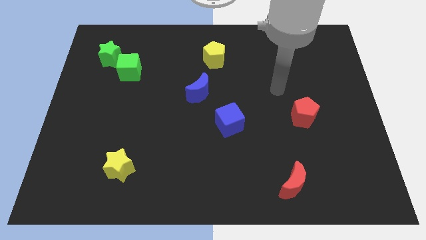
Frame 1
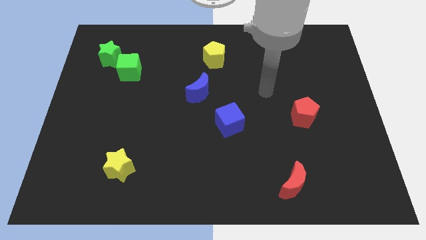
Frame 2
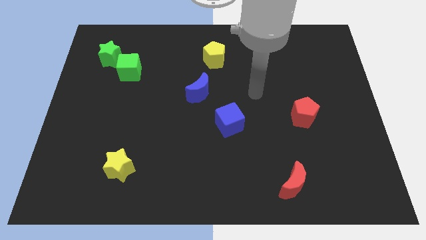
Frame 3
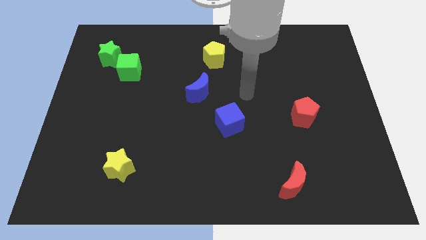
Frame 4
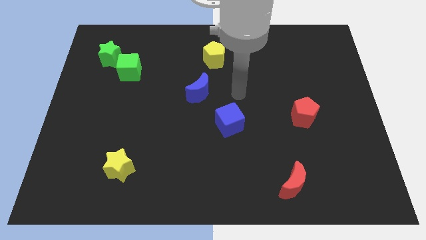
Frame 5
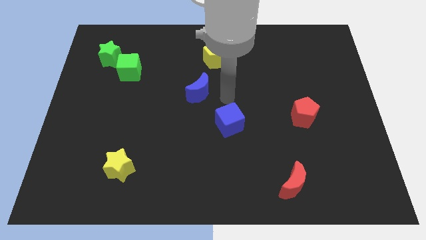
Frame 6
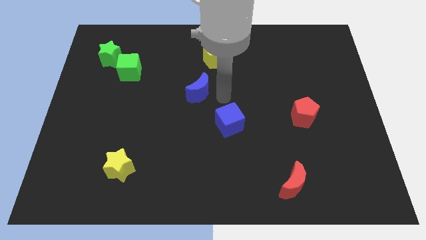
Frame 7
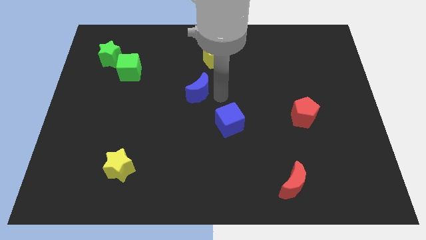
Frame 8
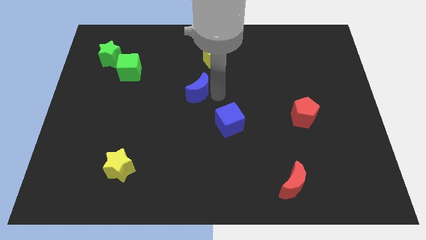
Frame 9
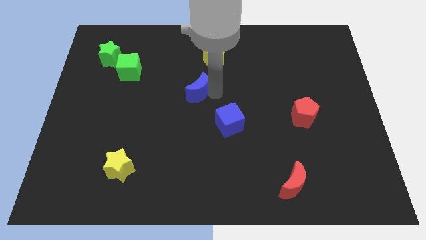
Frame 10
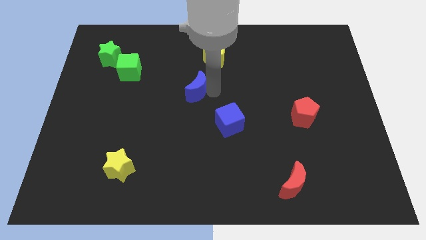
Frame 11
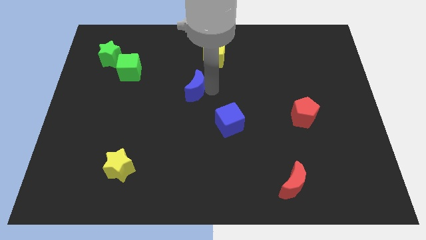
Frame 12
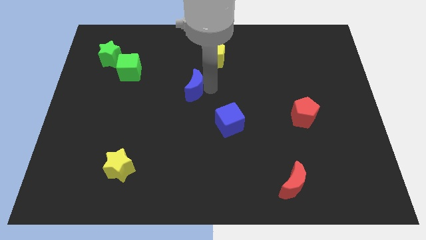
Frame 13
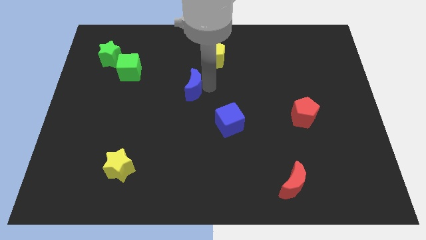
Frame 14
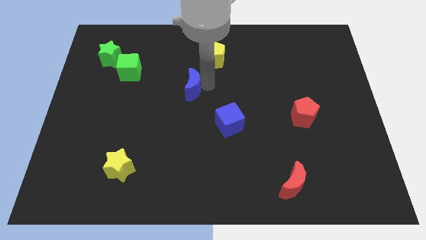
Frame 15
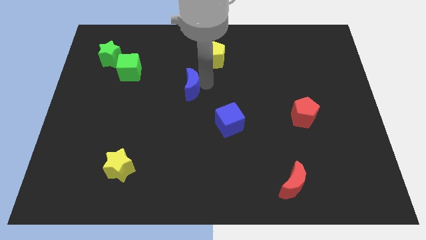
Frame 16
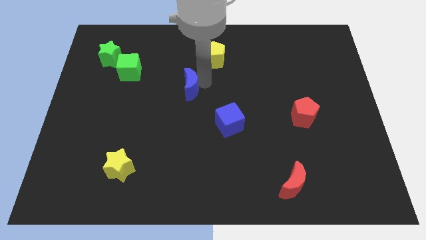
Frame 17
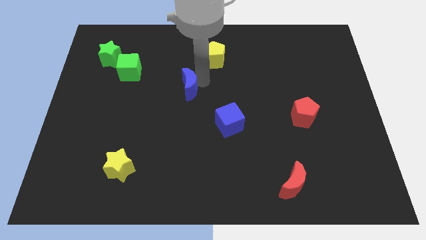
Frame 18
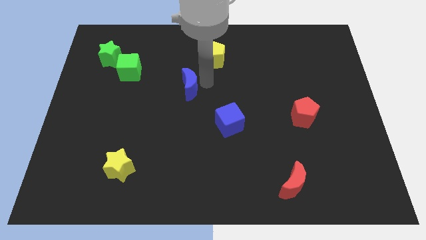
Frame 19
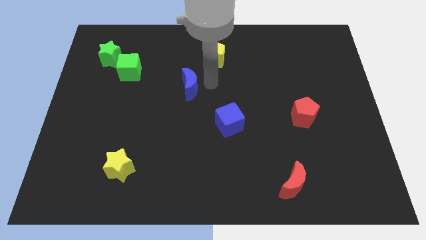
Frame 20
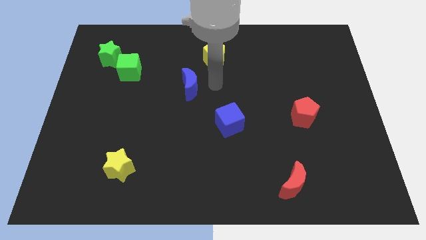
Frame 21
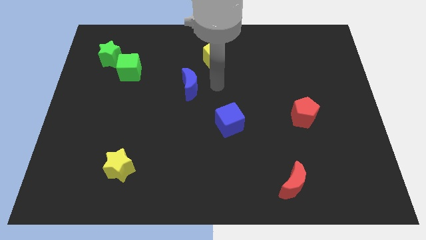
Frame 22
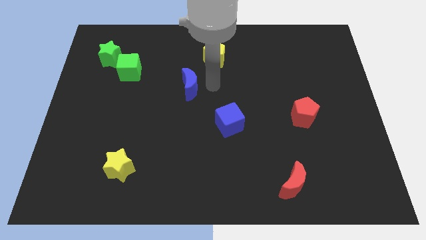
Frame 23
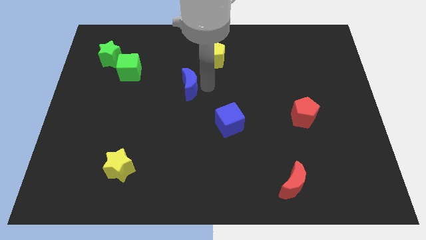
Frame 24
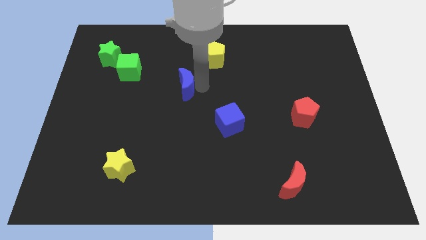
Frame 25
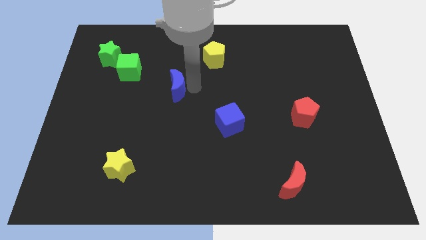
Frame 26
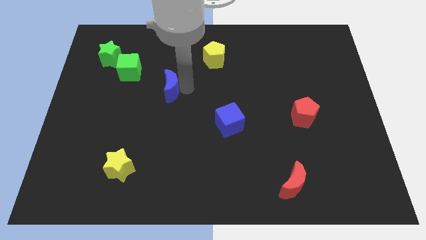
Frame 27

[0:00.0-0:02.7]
push the blue moon a little to the left

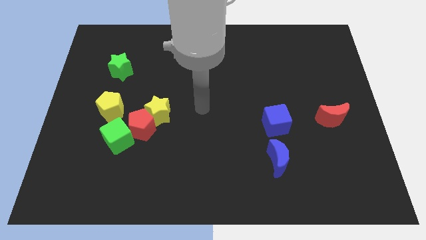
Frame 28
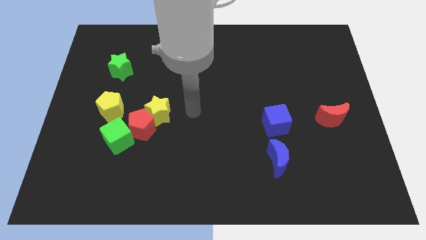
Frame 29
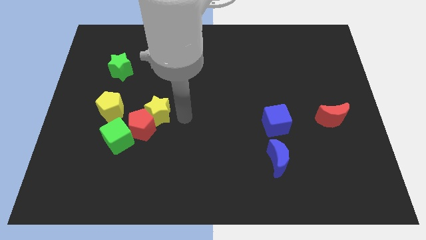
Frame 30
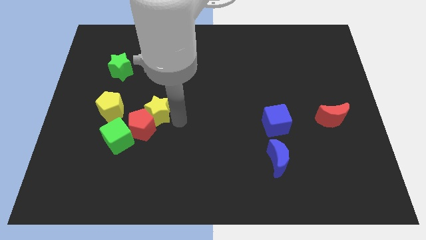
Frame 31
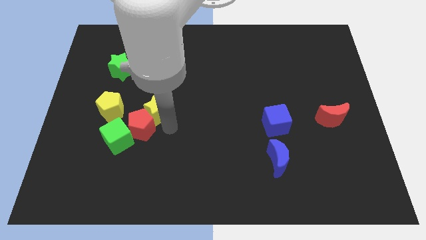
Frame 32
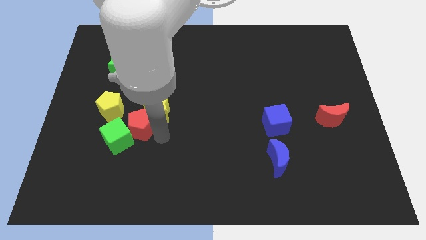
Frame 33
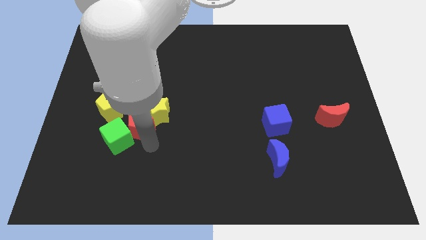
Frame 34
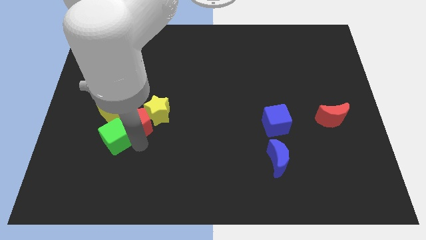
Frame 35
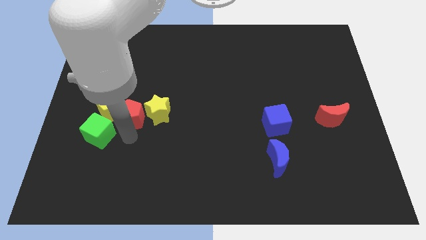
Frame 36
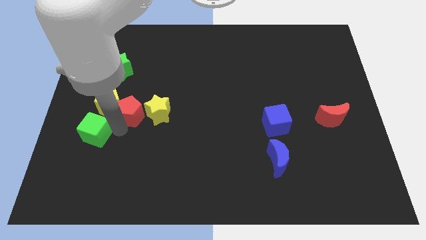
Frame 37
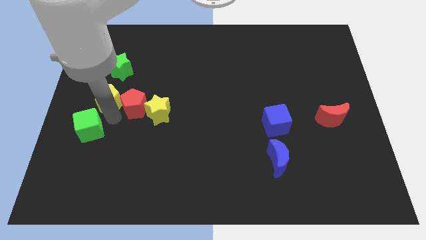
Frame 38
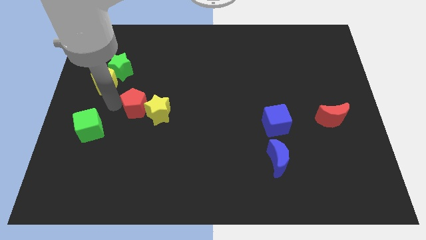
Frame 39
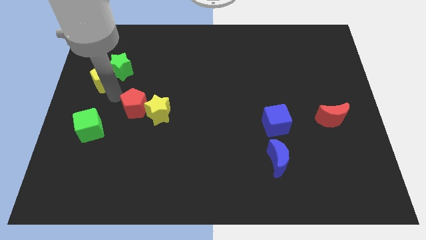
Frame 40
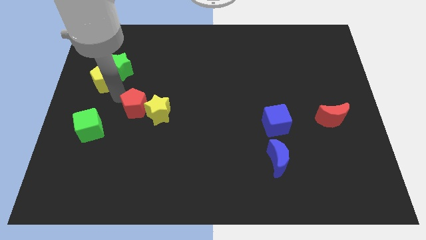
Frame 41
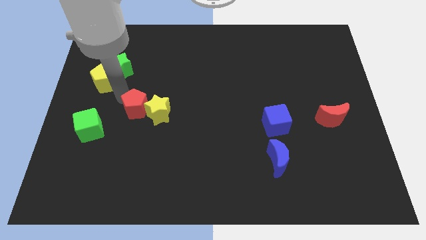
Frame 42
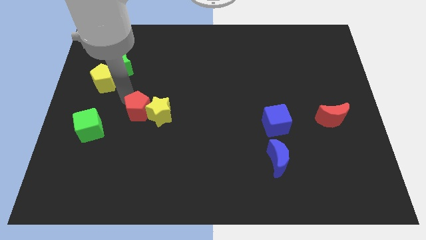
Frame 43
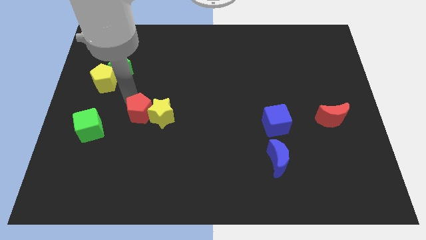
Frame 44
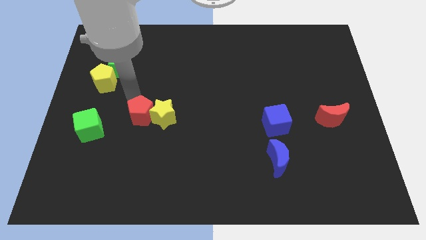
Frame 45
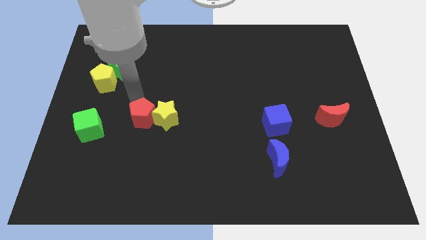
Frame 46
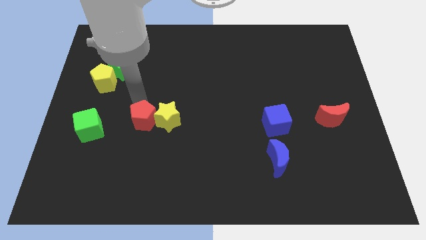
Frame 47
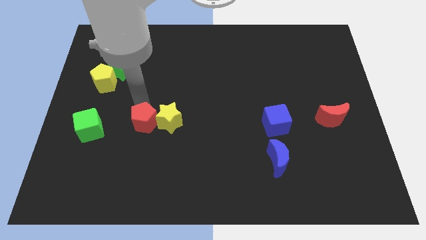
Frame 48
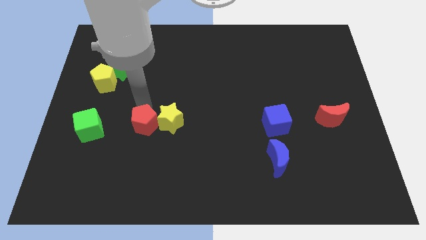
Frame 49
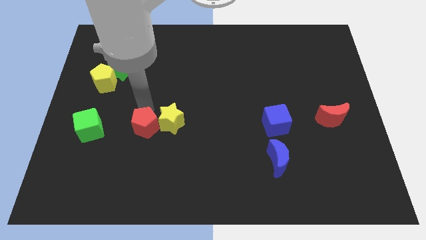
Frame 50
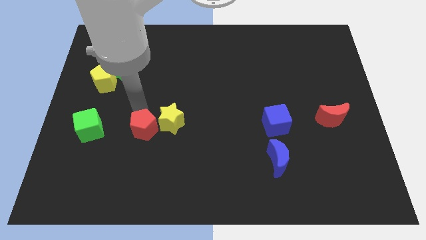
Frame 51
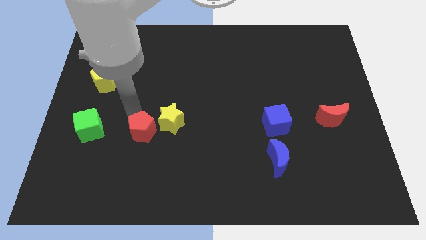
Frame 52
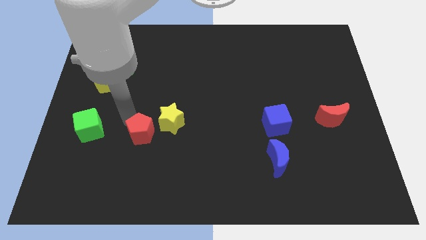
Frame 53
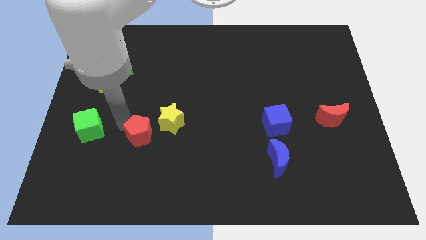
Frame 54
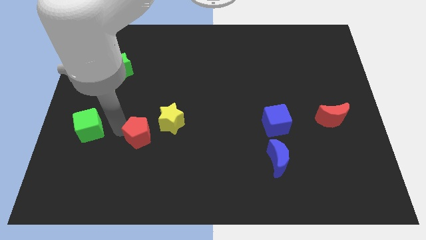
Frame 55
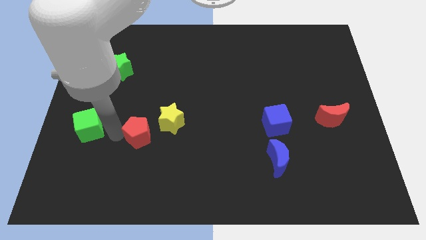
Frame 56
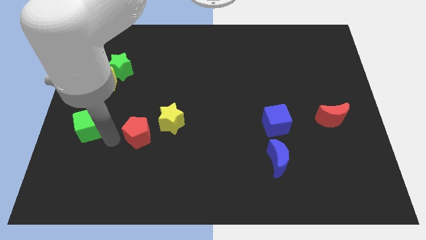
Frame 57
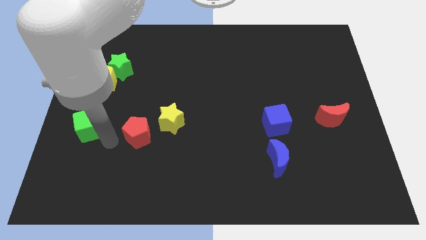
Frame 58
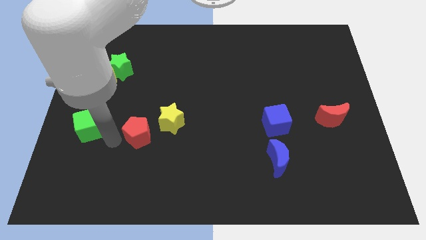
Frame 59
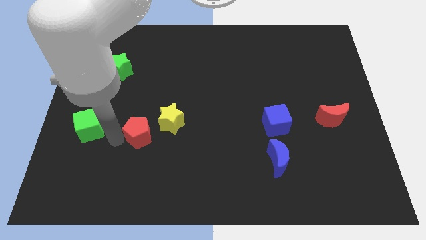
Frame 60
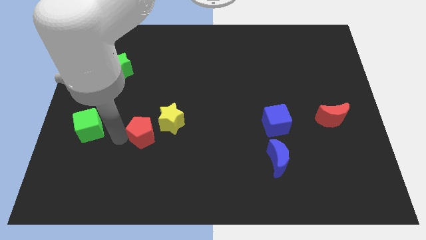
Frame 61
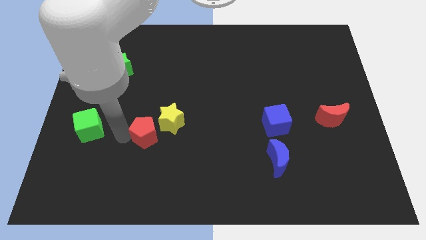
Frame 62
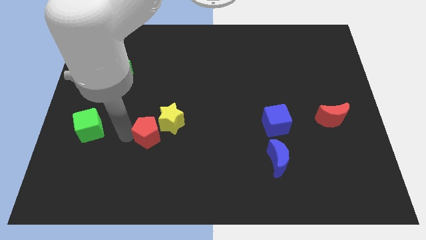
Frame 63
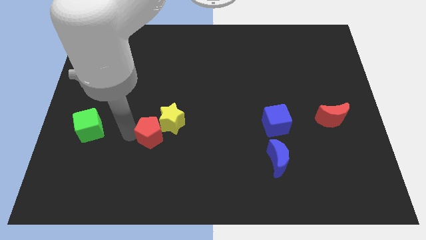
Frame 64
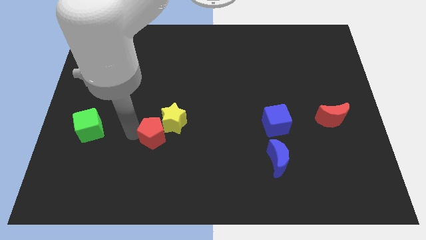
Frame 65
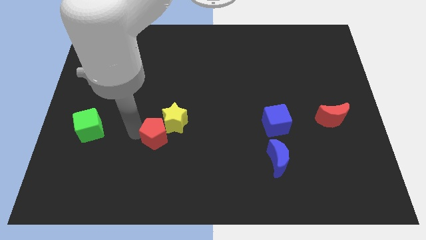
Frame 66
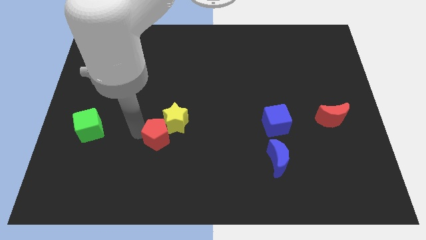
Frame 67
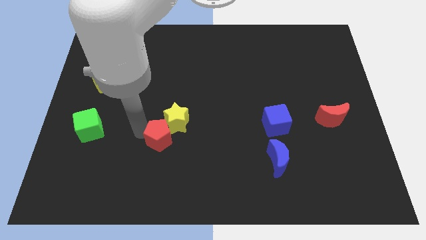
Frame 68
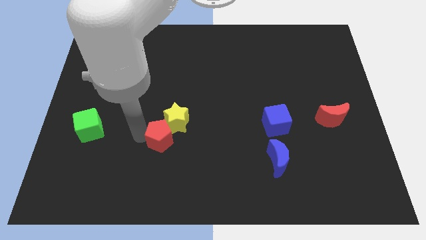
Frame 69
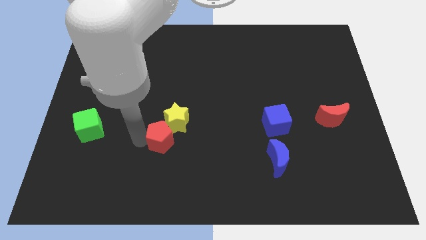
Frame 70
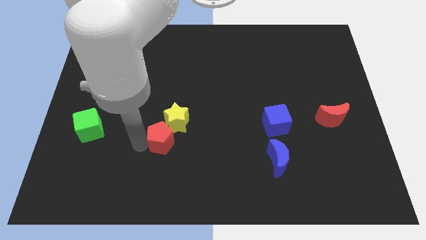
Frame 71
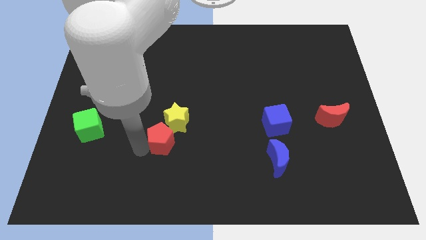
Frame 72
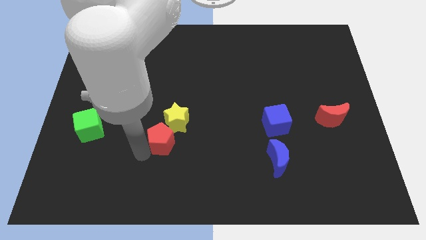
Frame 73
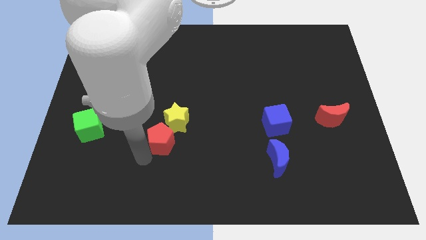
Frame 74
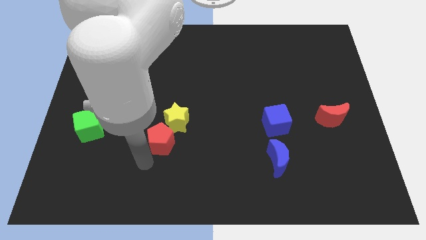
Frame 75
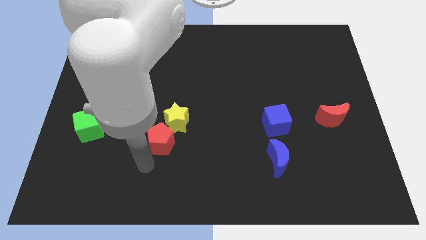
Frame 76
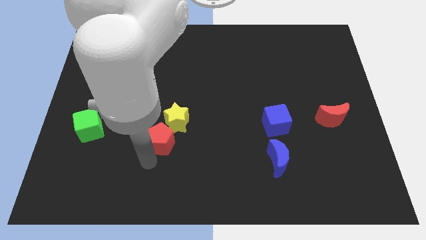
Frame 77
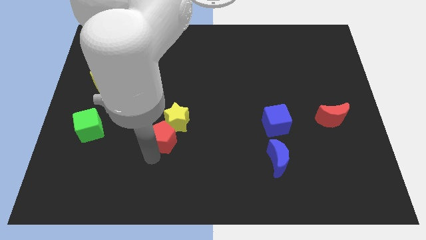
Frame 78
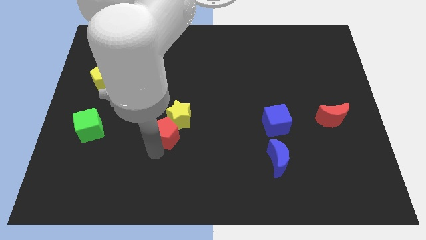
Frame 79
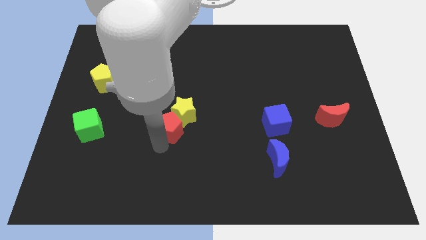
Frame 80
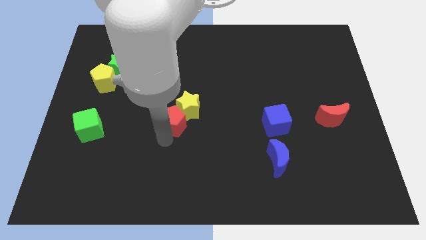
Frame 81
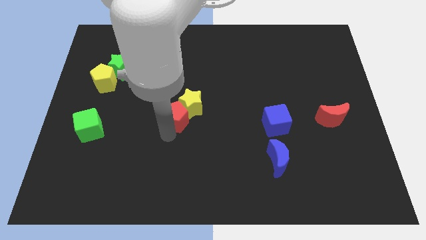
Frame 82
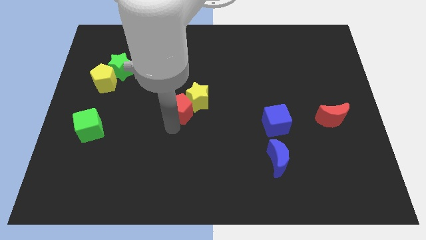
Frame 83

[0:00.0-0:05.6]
slide the red pentagon a little up and to the right diagonally
